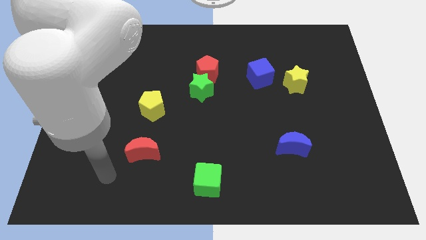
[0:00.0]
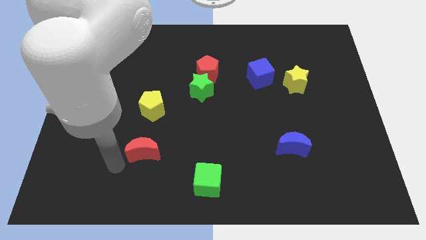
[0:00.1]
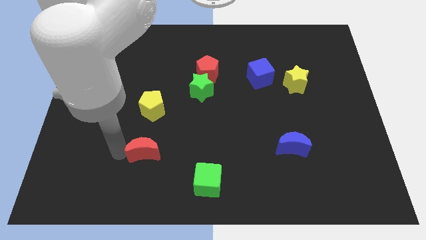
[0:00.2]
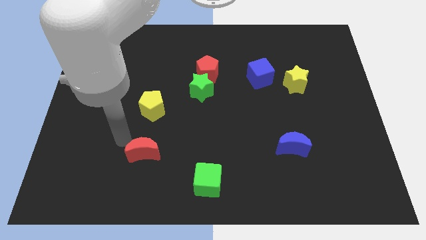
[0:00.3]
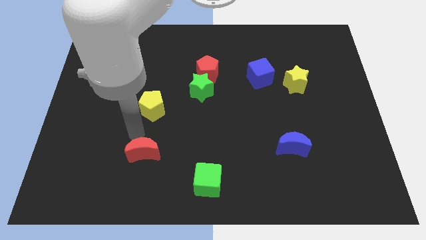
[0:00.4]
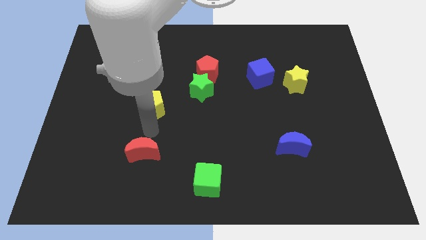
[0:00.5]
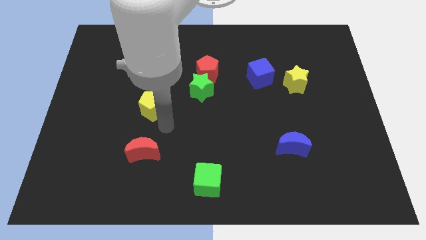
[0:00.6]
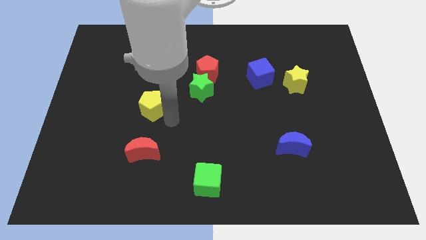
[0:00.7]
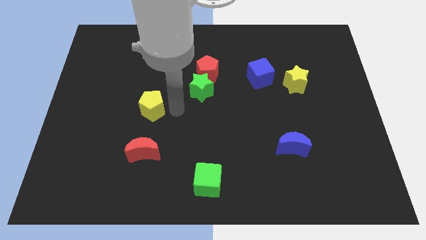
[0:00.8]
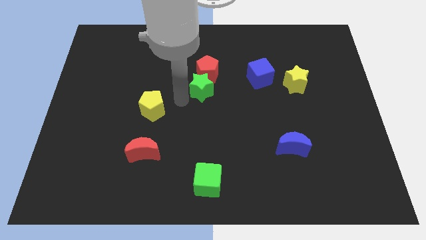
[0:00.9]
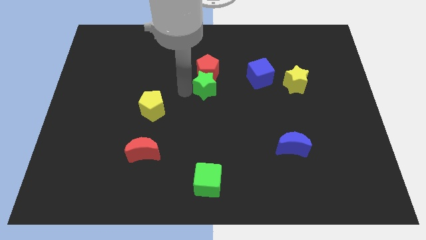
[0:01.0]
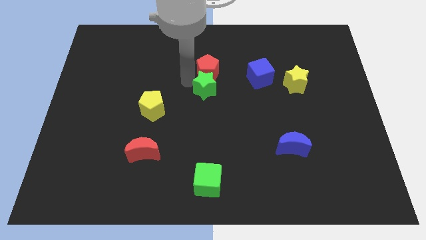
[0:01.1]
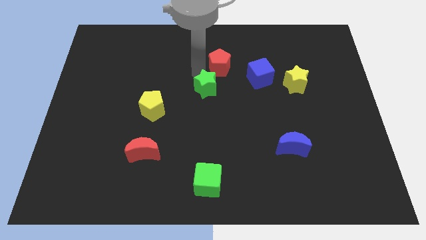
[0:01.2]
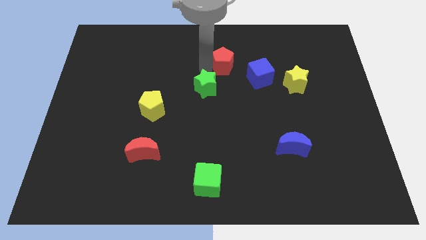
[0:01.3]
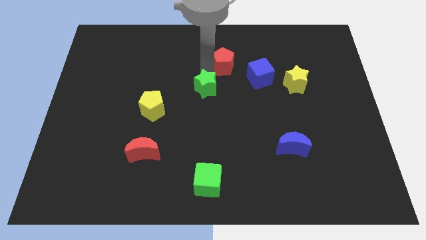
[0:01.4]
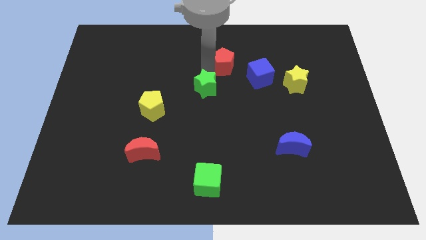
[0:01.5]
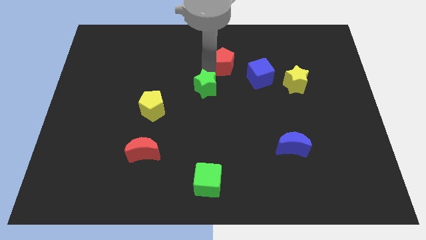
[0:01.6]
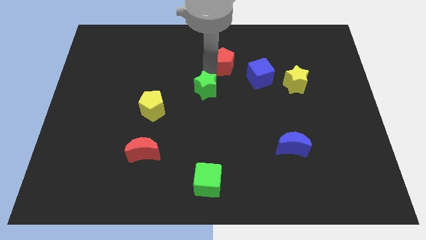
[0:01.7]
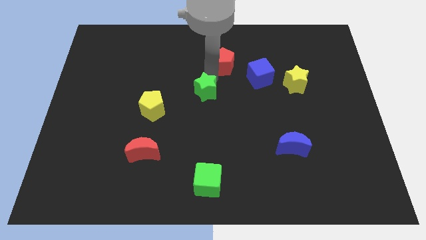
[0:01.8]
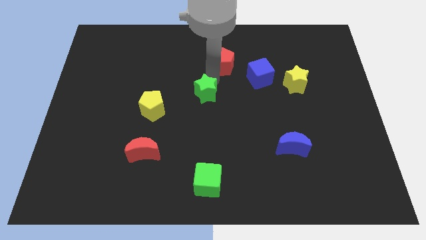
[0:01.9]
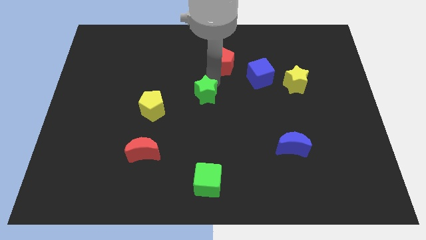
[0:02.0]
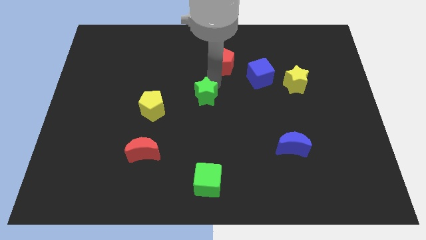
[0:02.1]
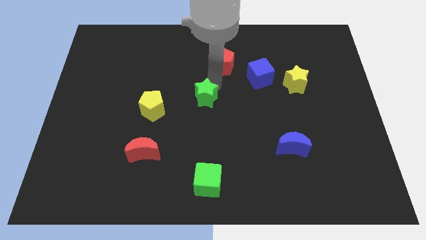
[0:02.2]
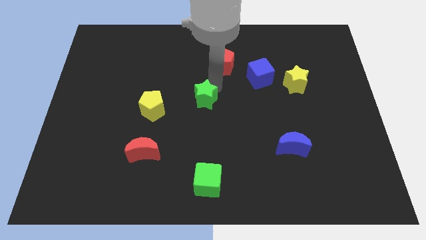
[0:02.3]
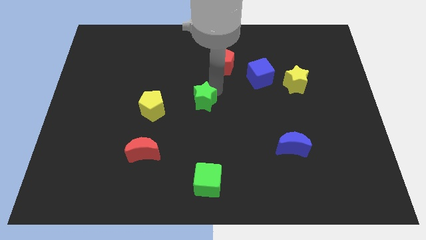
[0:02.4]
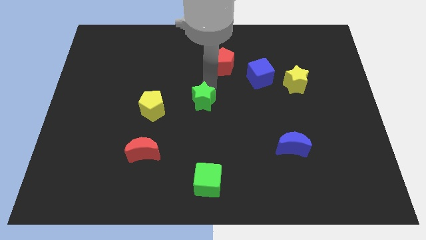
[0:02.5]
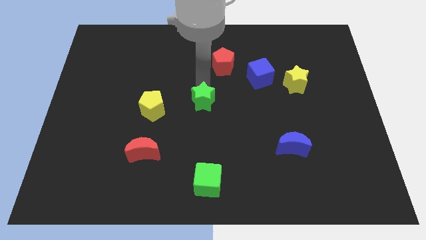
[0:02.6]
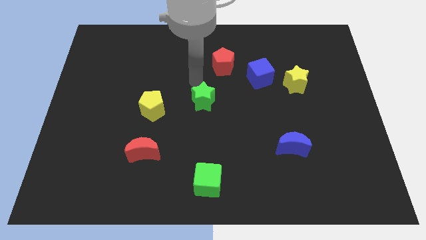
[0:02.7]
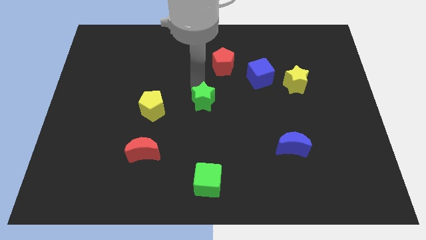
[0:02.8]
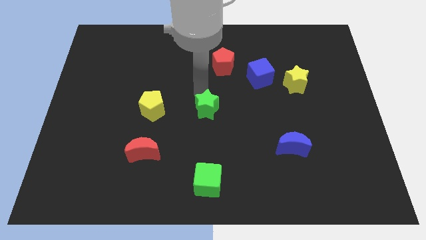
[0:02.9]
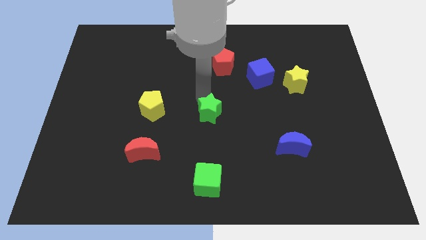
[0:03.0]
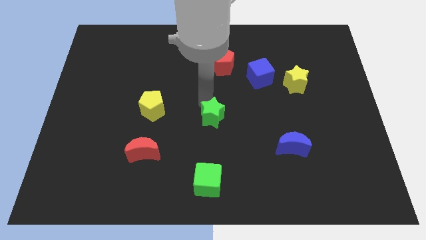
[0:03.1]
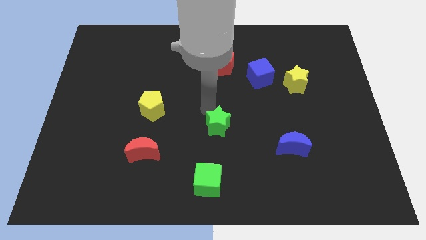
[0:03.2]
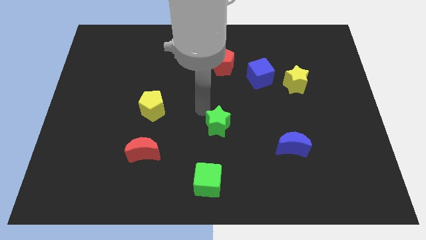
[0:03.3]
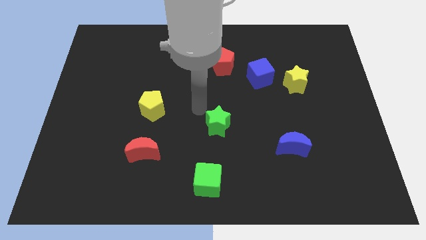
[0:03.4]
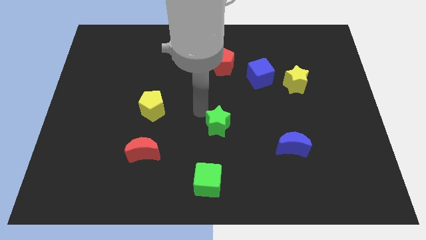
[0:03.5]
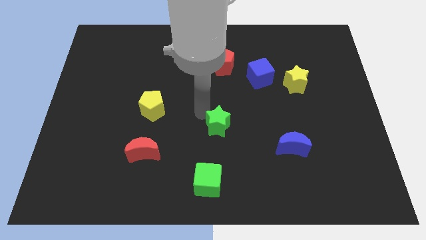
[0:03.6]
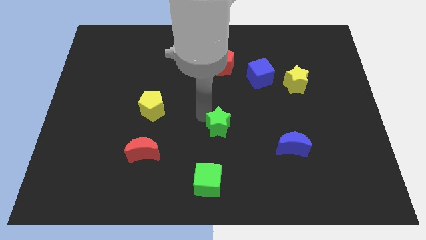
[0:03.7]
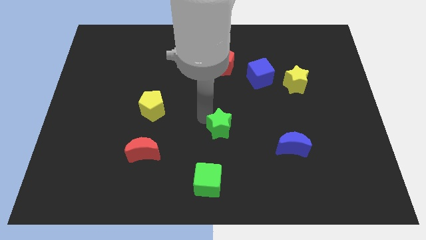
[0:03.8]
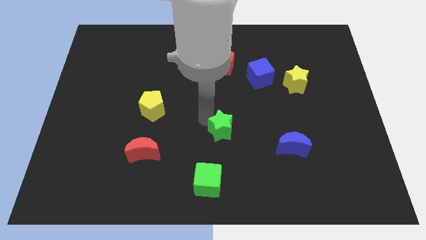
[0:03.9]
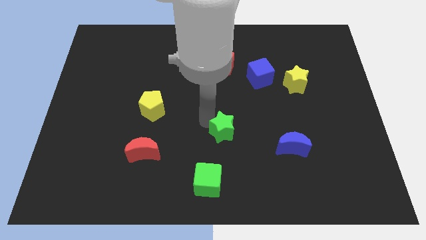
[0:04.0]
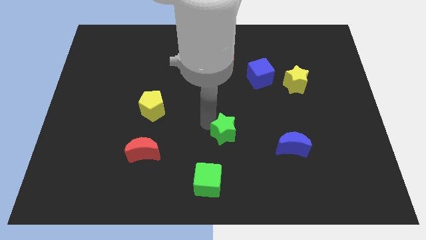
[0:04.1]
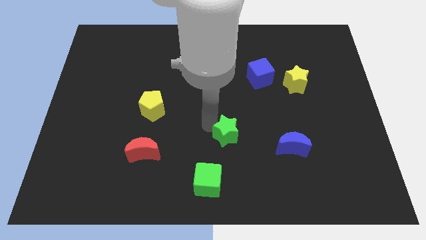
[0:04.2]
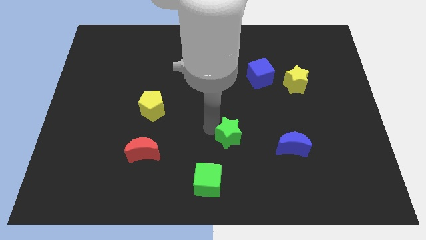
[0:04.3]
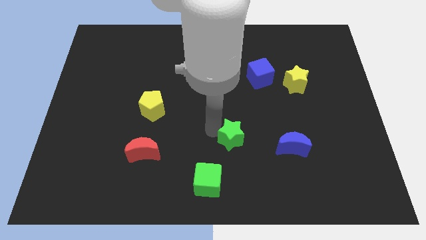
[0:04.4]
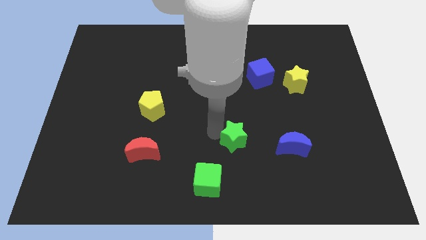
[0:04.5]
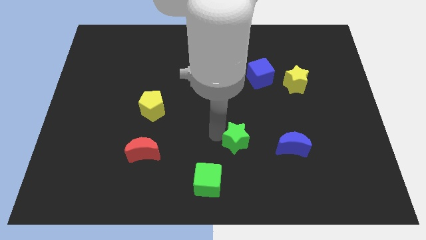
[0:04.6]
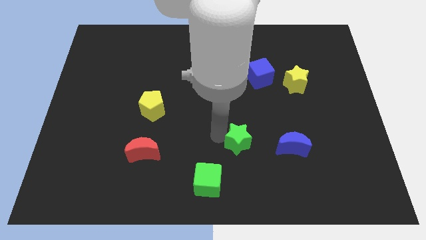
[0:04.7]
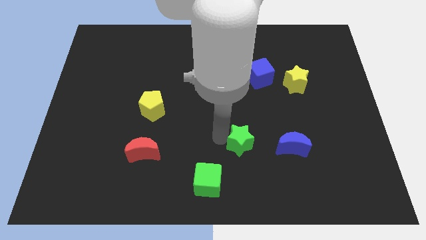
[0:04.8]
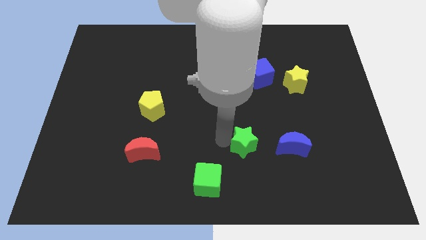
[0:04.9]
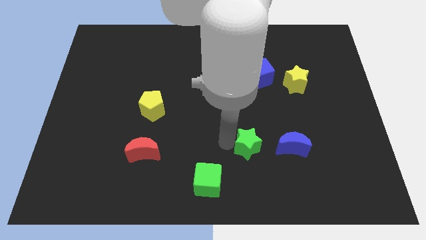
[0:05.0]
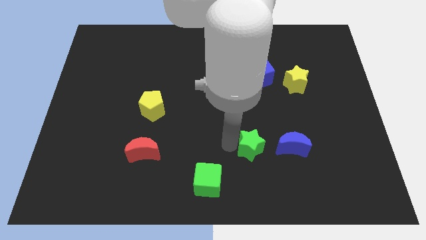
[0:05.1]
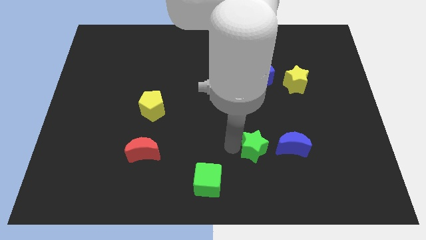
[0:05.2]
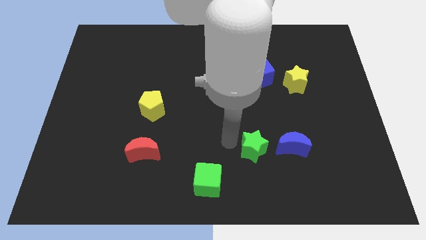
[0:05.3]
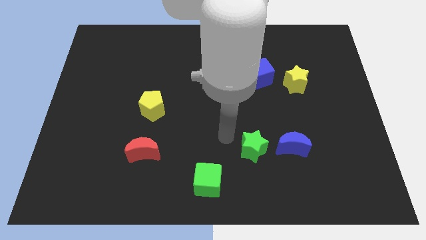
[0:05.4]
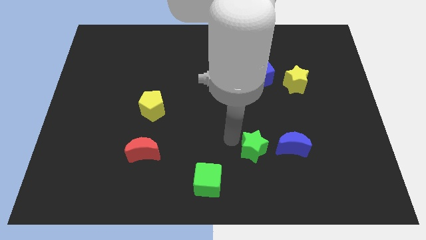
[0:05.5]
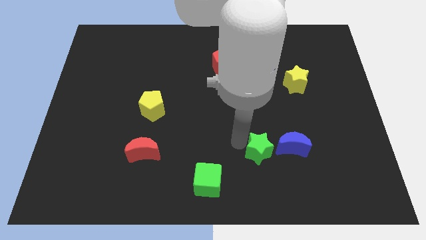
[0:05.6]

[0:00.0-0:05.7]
slide the green star diagonally down and to the right

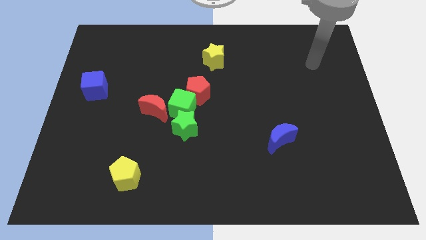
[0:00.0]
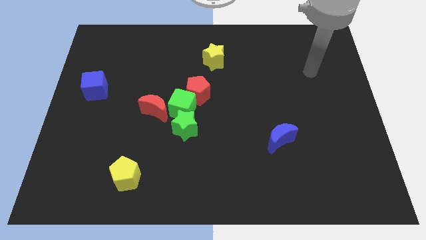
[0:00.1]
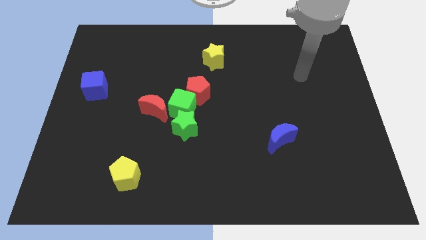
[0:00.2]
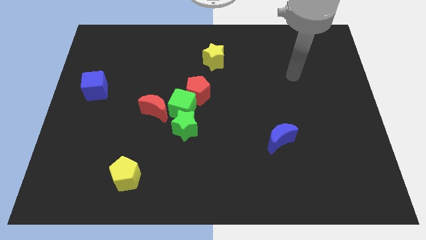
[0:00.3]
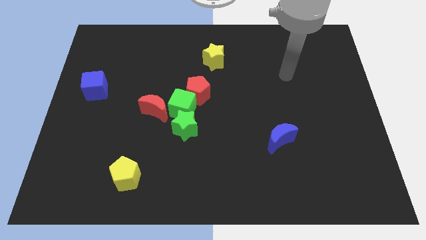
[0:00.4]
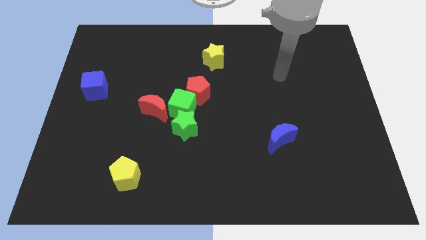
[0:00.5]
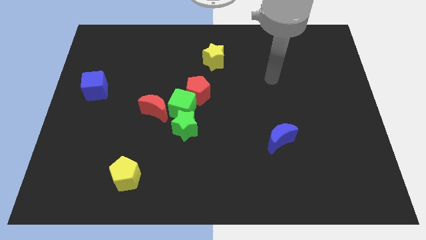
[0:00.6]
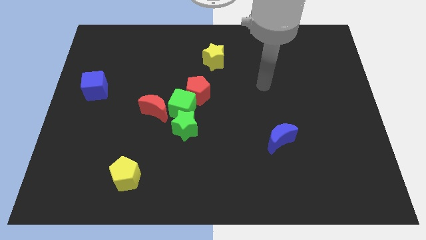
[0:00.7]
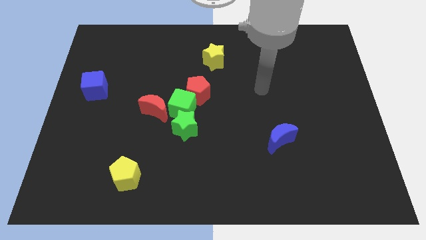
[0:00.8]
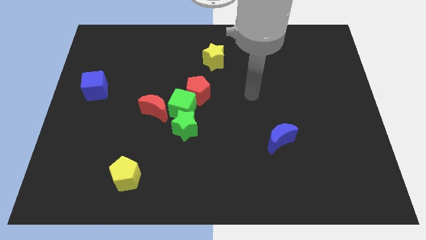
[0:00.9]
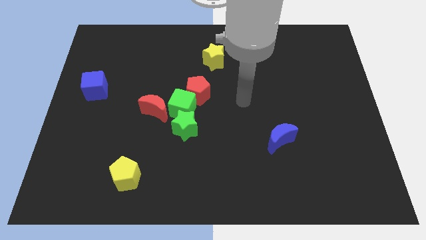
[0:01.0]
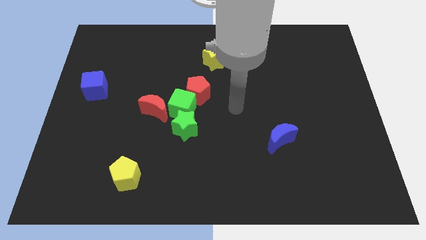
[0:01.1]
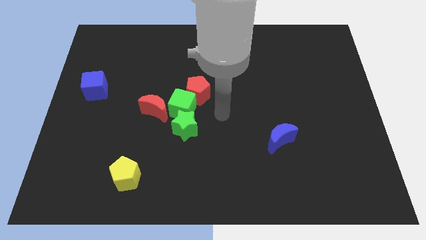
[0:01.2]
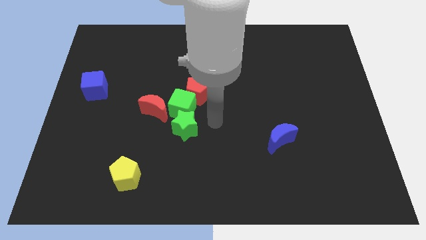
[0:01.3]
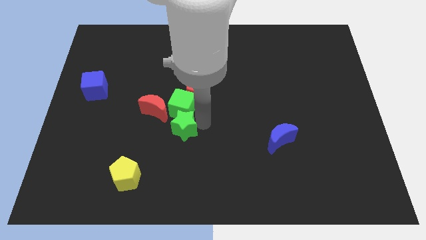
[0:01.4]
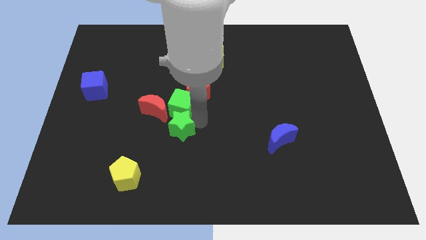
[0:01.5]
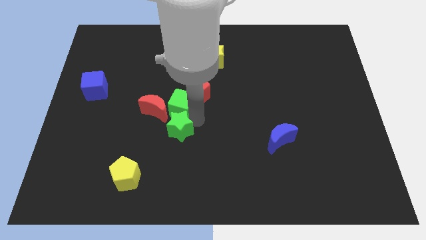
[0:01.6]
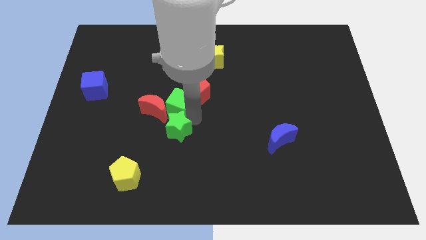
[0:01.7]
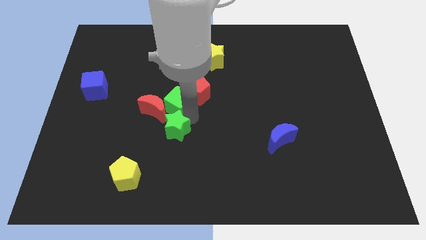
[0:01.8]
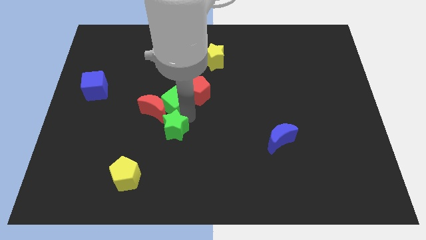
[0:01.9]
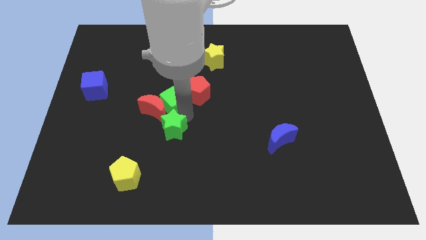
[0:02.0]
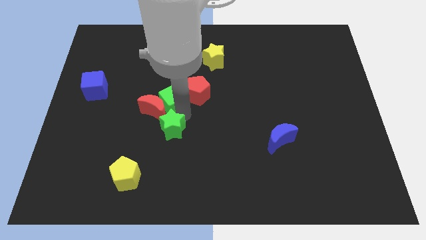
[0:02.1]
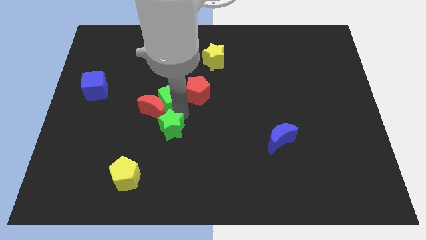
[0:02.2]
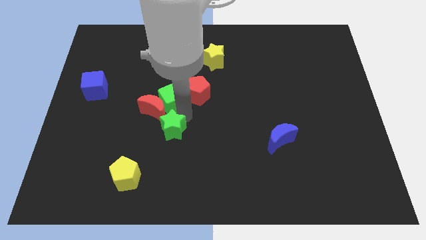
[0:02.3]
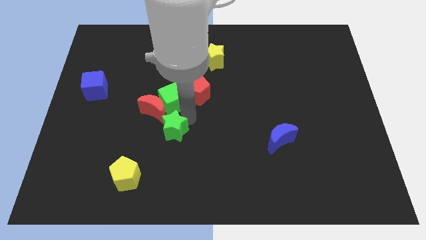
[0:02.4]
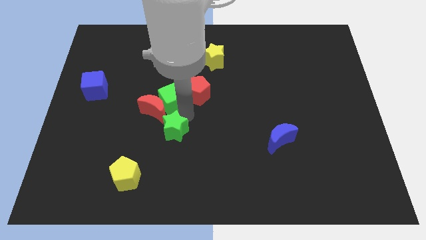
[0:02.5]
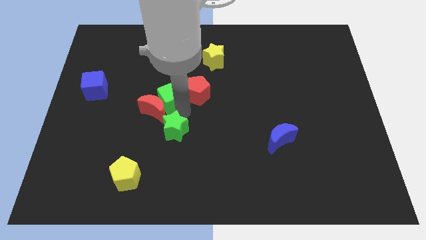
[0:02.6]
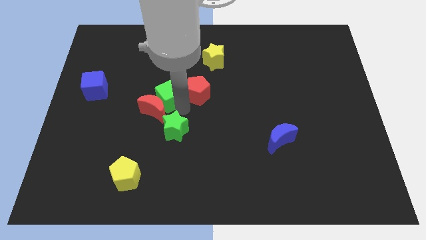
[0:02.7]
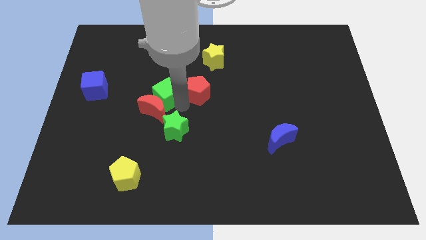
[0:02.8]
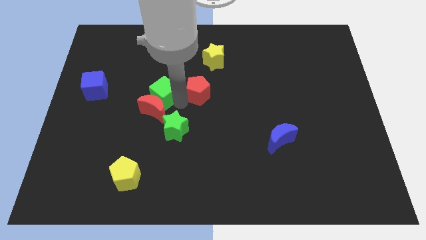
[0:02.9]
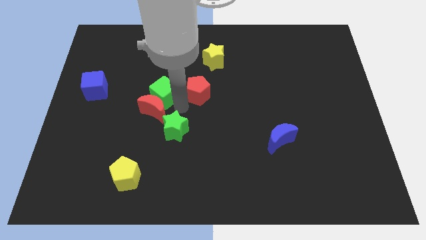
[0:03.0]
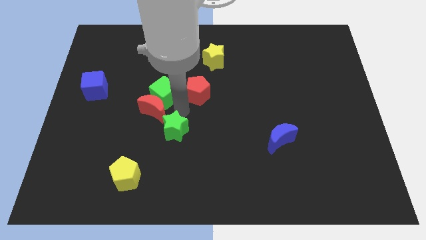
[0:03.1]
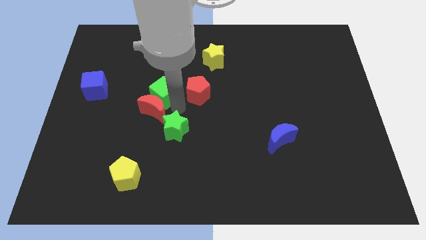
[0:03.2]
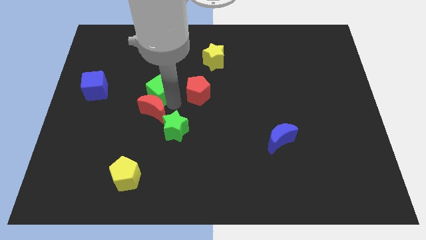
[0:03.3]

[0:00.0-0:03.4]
slide the green cube upwards and to the left diagonally slightly
